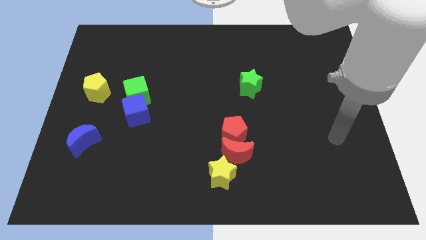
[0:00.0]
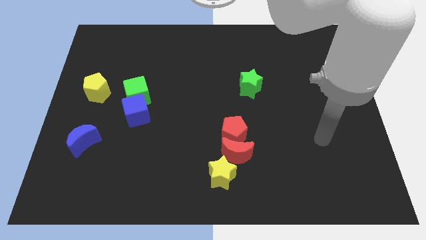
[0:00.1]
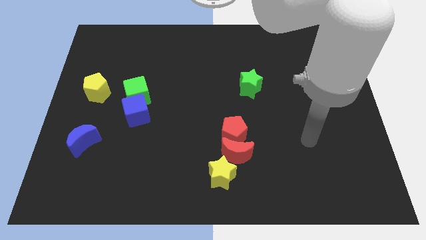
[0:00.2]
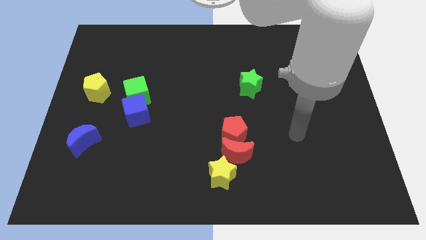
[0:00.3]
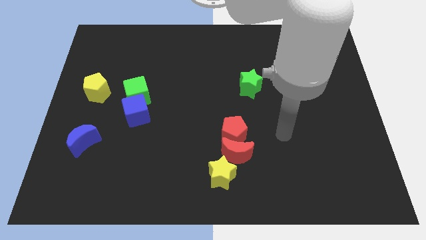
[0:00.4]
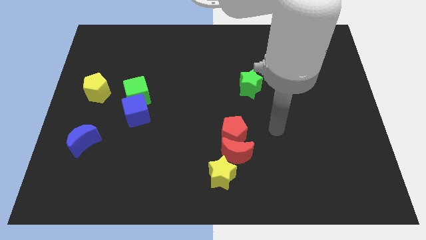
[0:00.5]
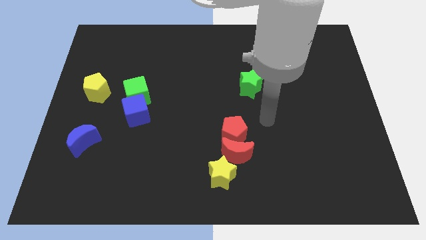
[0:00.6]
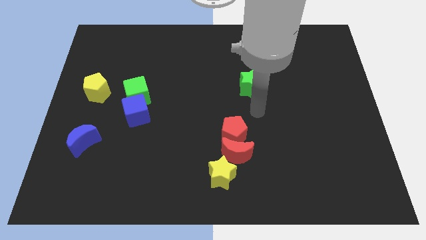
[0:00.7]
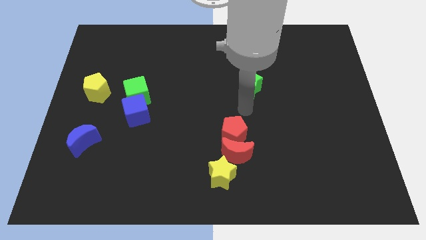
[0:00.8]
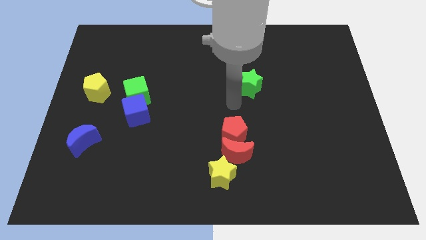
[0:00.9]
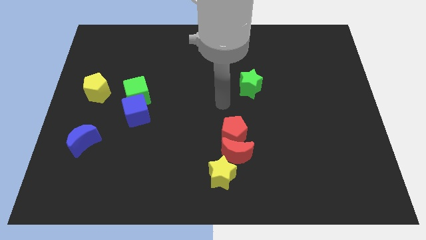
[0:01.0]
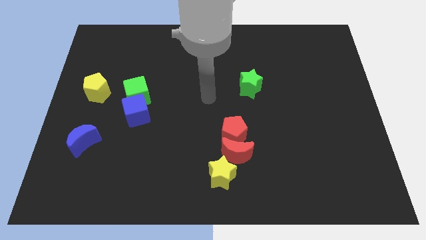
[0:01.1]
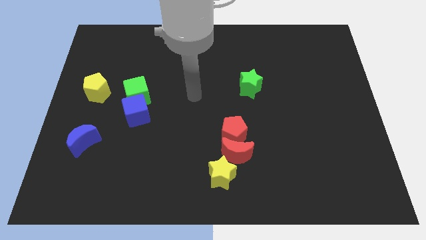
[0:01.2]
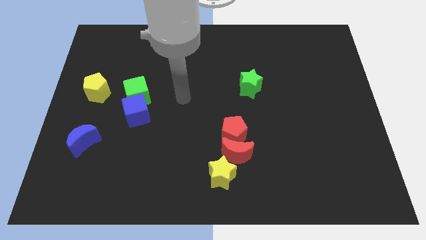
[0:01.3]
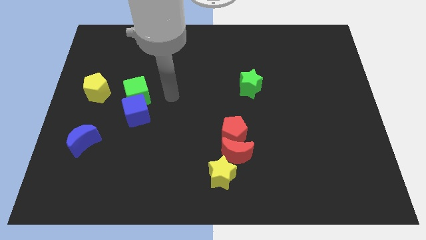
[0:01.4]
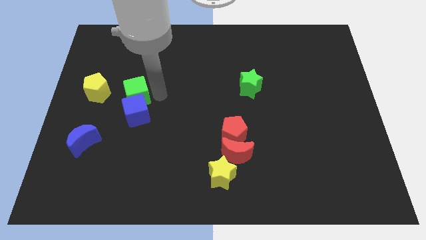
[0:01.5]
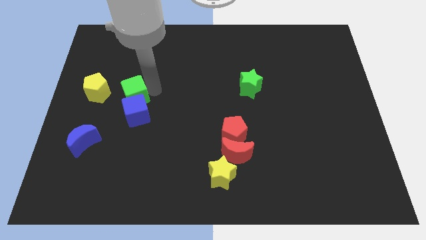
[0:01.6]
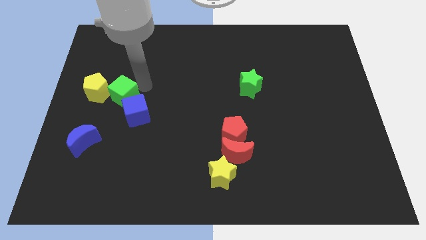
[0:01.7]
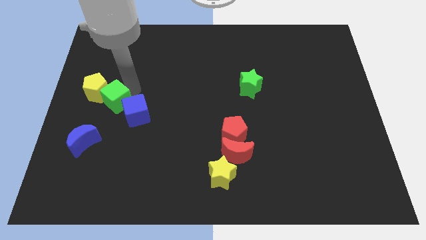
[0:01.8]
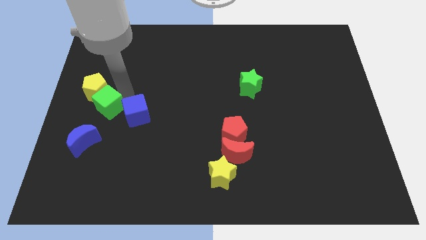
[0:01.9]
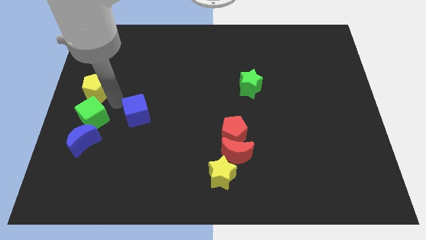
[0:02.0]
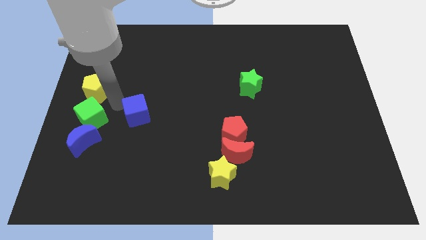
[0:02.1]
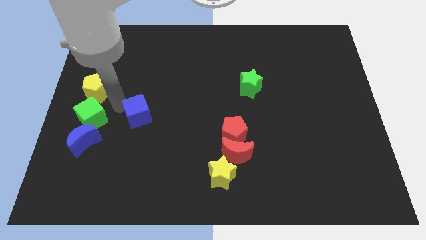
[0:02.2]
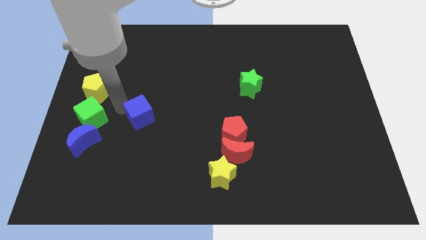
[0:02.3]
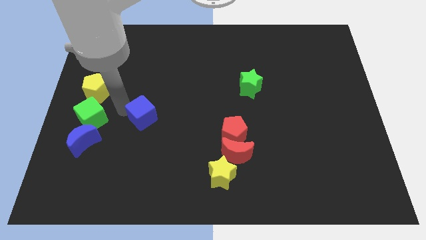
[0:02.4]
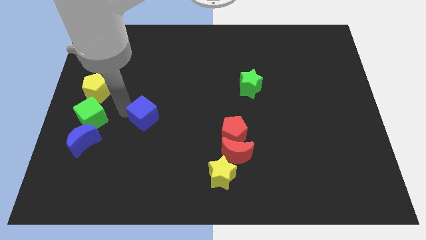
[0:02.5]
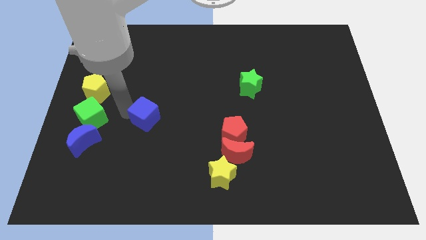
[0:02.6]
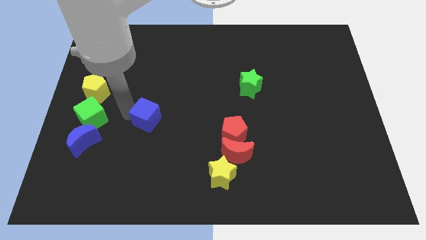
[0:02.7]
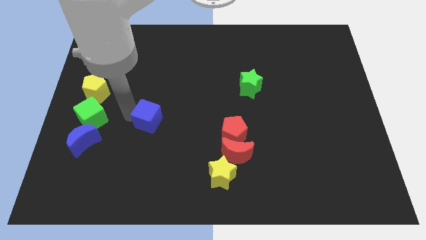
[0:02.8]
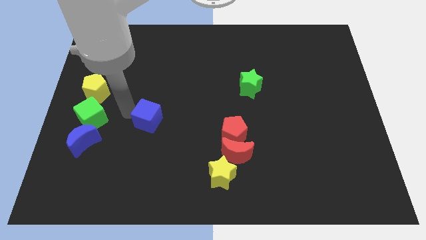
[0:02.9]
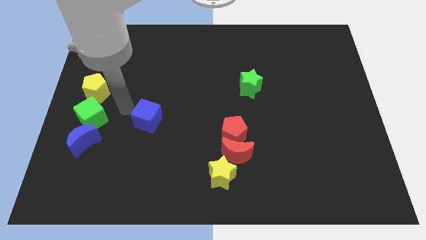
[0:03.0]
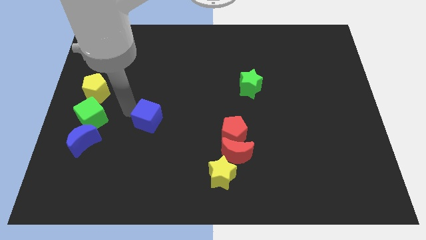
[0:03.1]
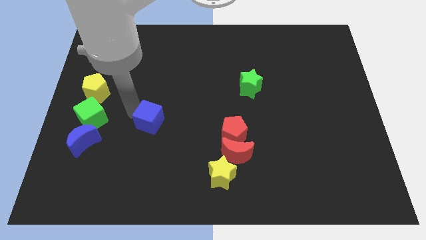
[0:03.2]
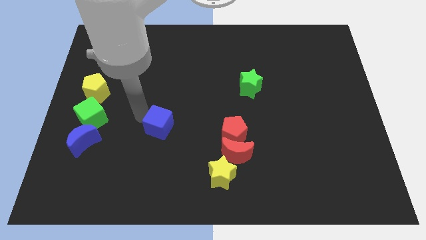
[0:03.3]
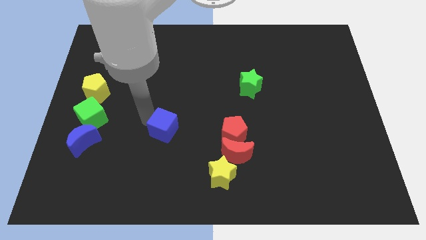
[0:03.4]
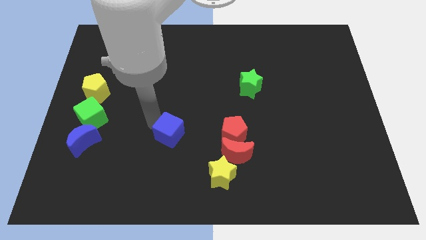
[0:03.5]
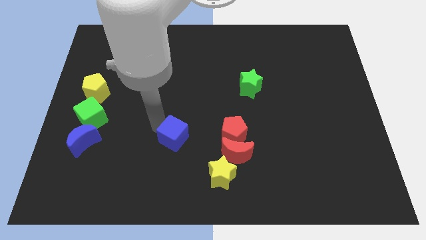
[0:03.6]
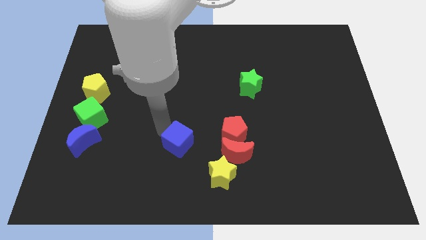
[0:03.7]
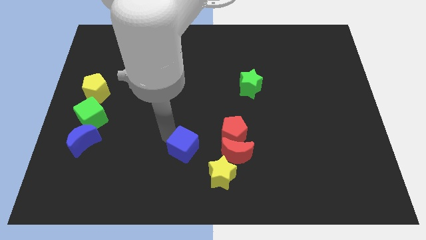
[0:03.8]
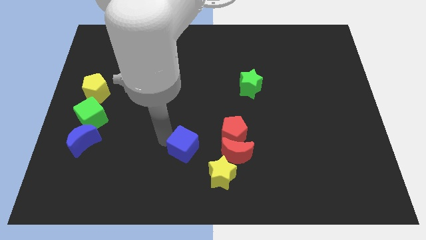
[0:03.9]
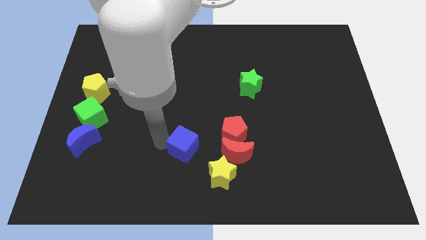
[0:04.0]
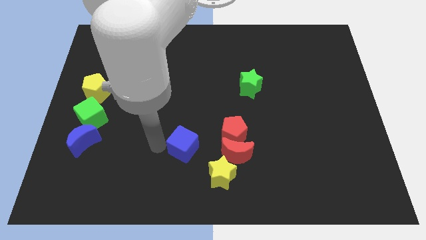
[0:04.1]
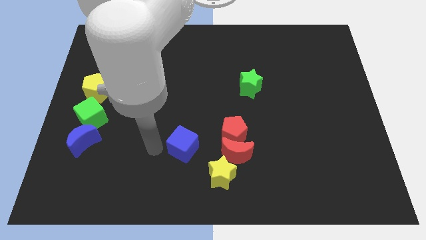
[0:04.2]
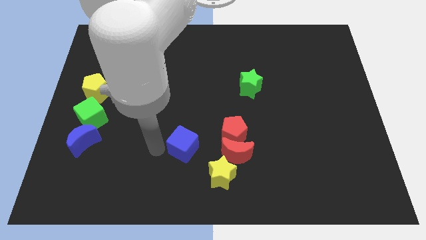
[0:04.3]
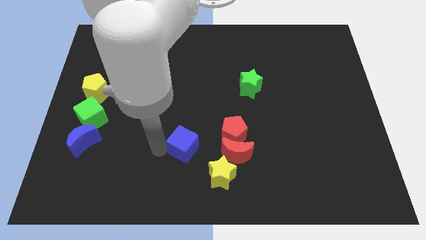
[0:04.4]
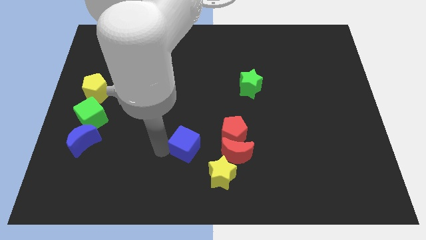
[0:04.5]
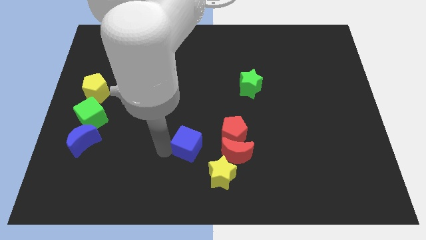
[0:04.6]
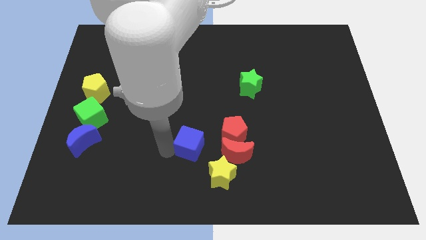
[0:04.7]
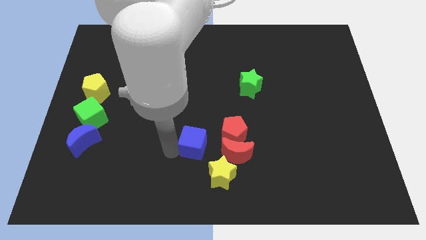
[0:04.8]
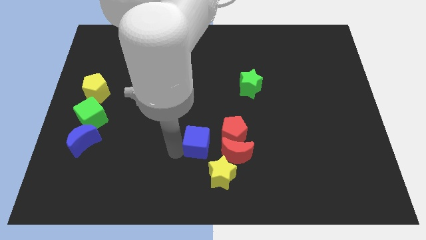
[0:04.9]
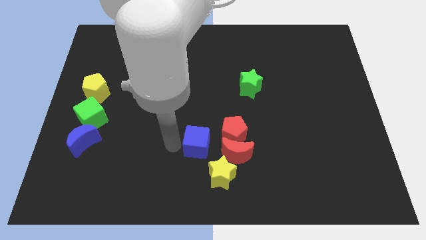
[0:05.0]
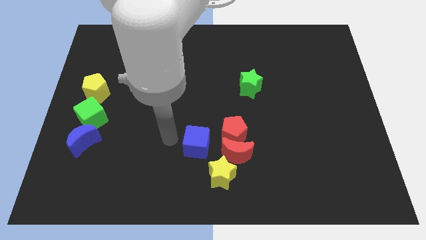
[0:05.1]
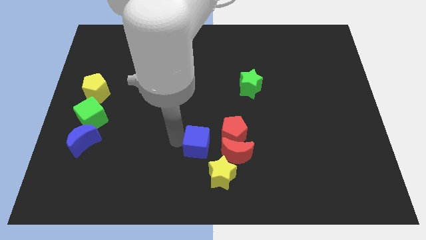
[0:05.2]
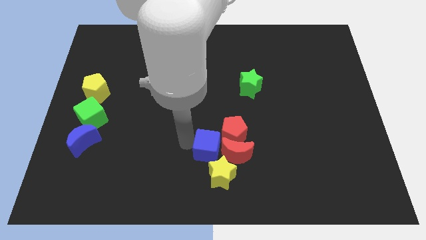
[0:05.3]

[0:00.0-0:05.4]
push the blue cube next to the red moon

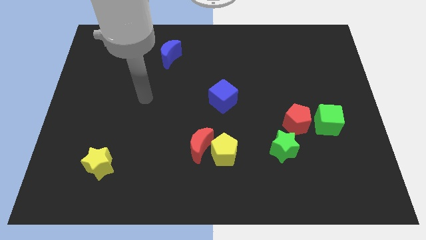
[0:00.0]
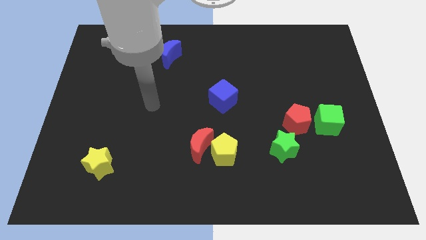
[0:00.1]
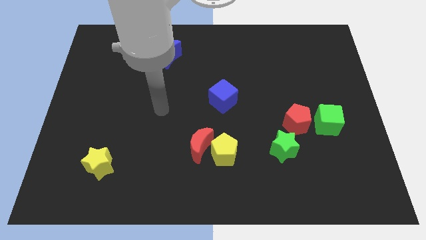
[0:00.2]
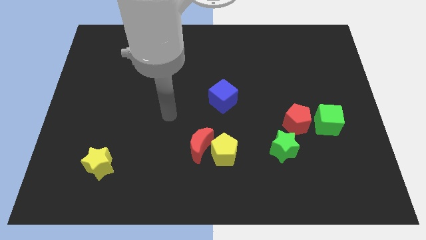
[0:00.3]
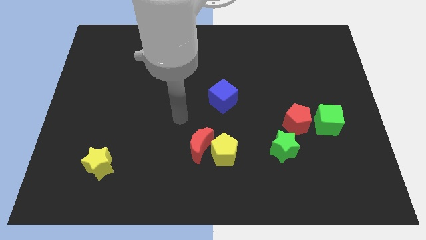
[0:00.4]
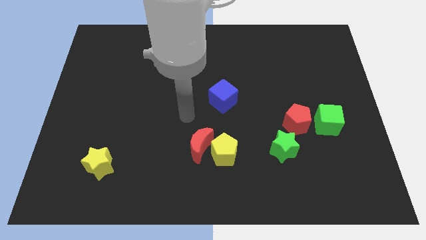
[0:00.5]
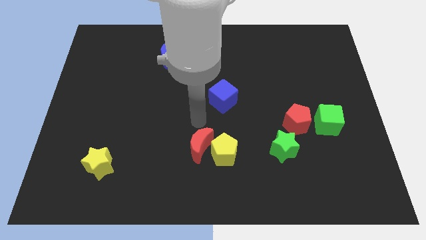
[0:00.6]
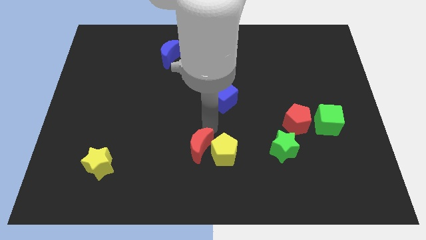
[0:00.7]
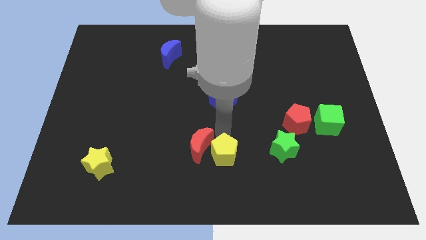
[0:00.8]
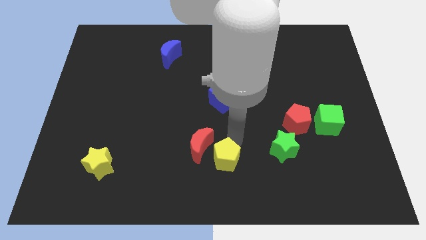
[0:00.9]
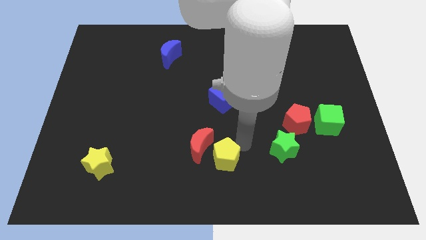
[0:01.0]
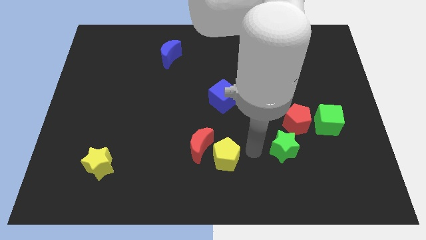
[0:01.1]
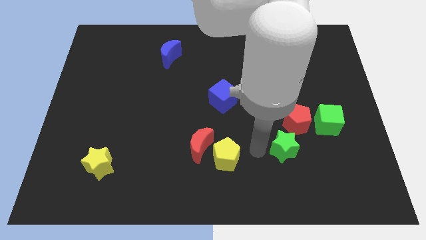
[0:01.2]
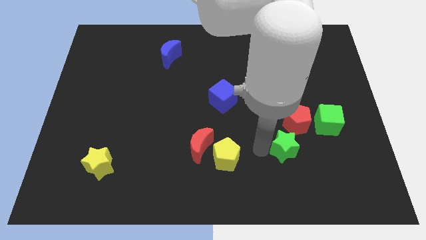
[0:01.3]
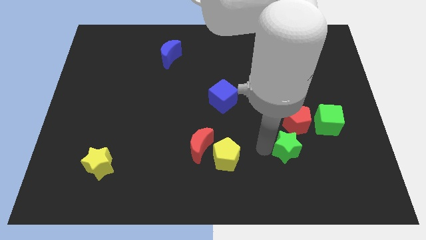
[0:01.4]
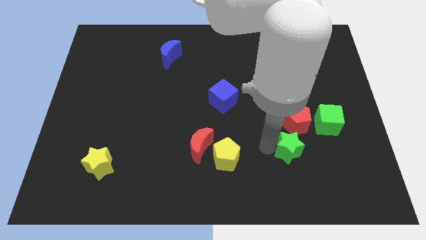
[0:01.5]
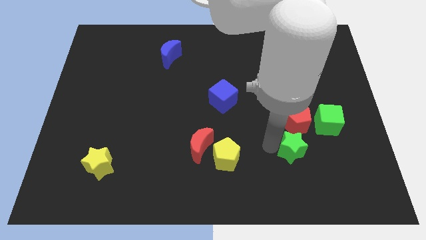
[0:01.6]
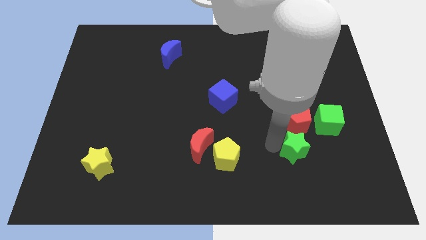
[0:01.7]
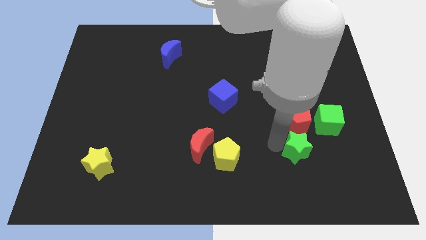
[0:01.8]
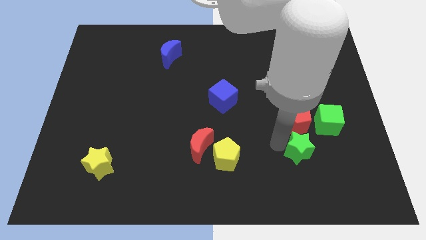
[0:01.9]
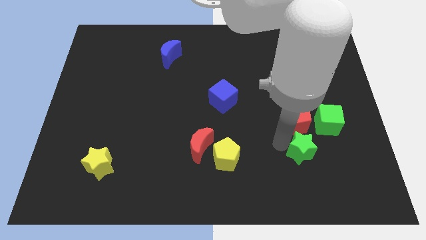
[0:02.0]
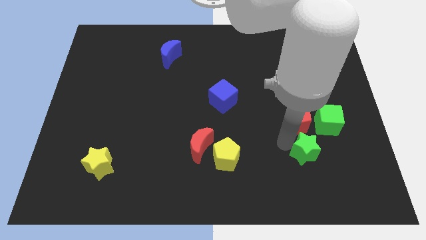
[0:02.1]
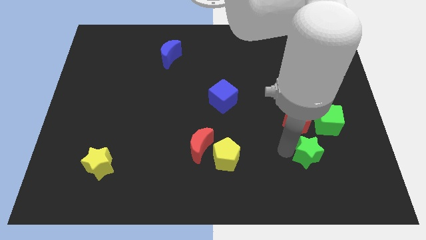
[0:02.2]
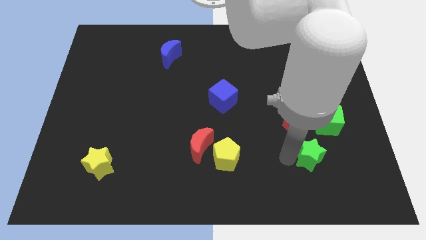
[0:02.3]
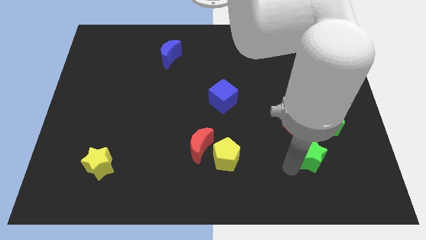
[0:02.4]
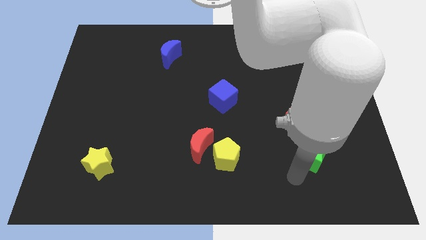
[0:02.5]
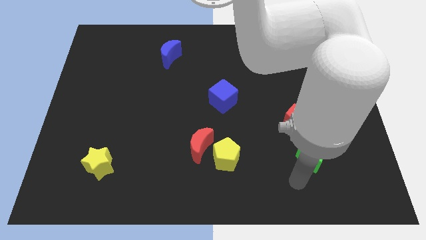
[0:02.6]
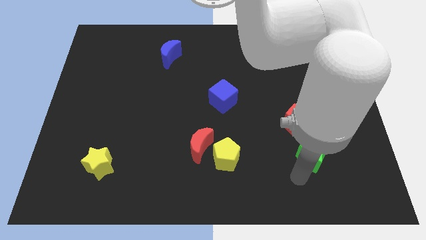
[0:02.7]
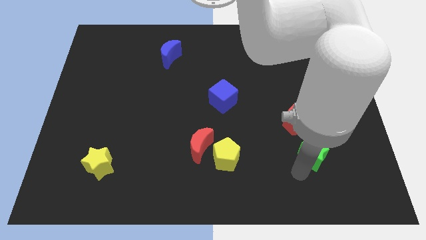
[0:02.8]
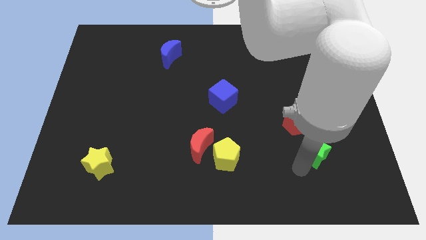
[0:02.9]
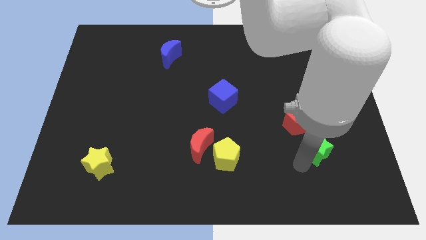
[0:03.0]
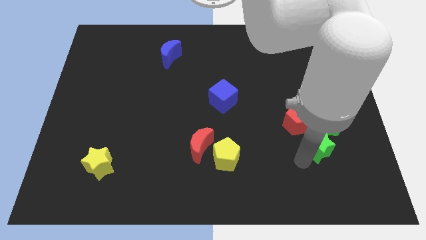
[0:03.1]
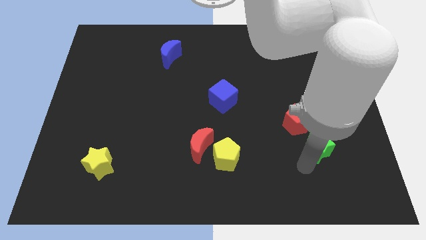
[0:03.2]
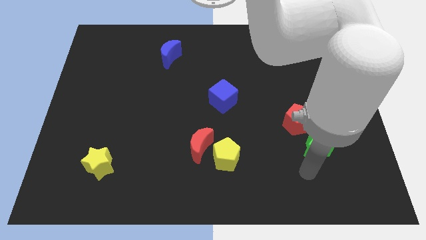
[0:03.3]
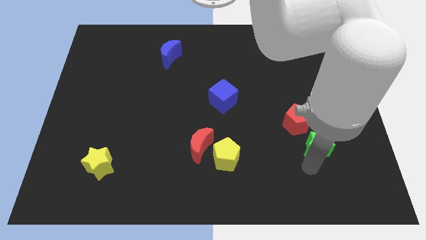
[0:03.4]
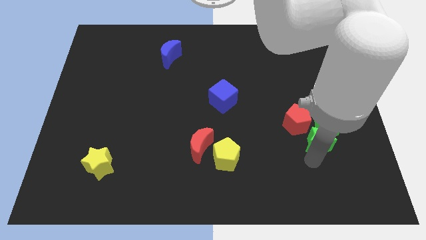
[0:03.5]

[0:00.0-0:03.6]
push the green star next to the green cube
